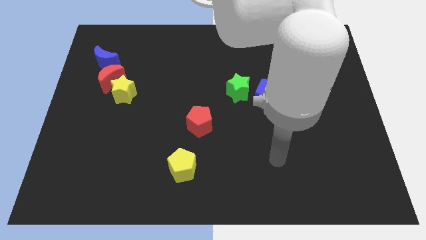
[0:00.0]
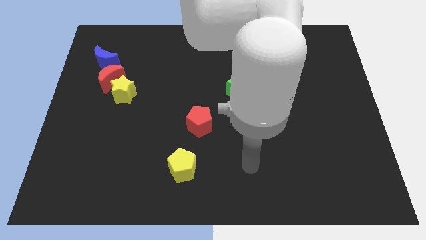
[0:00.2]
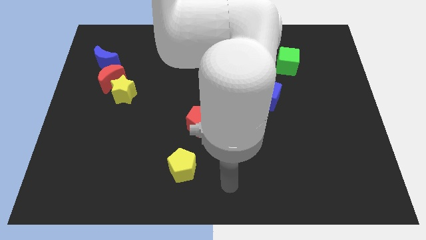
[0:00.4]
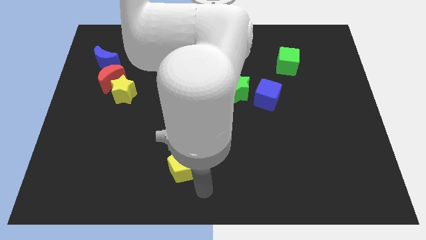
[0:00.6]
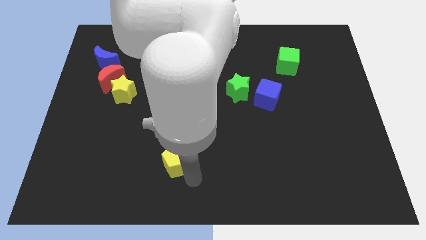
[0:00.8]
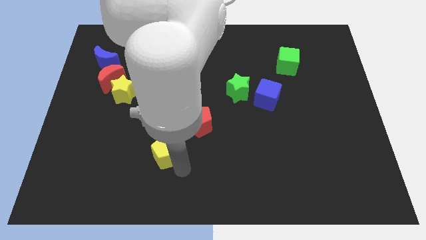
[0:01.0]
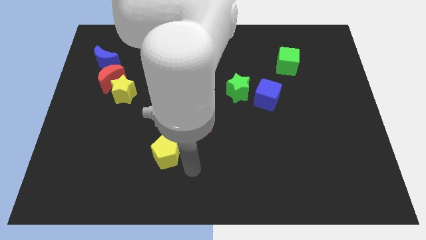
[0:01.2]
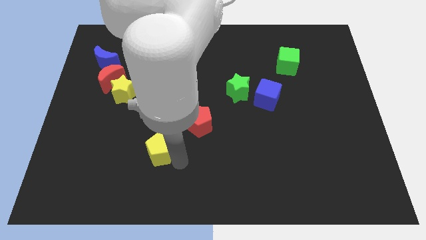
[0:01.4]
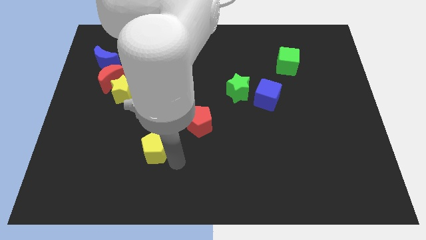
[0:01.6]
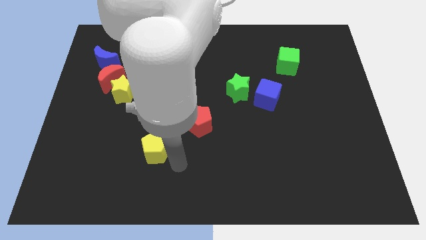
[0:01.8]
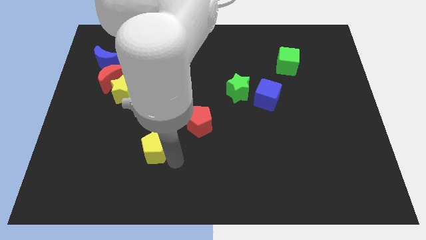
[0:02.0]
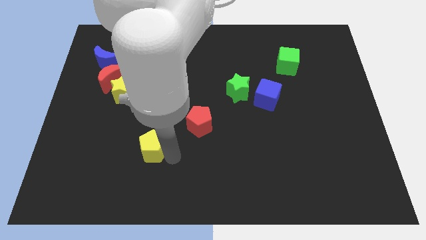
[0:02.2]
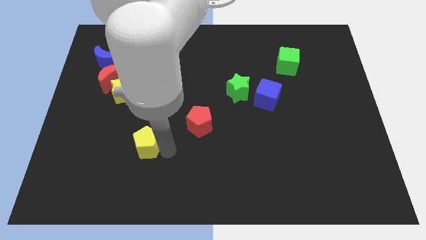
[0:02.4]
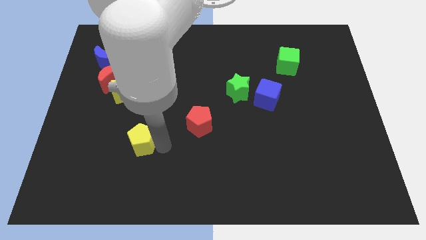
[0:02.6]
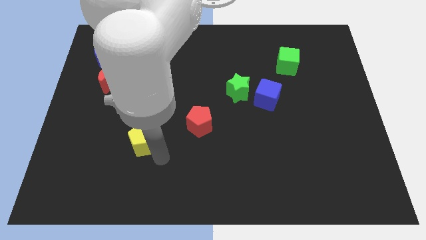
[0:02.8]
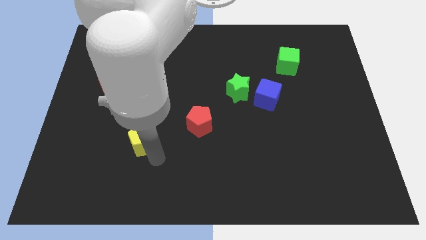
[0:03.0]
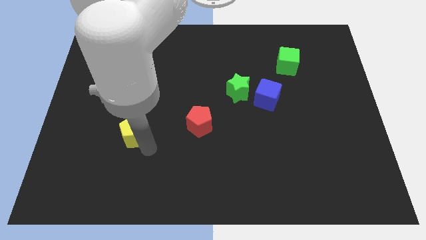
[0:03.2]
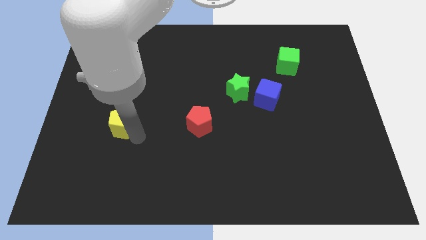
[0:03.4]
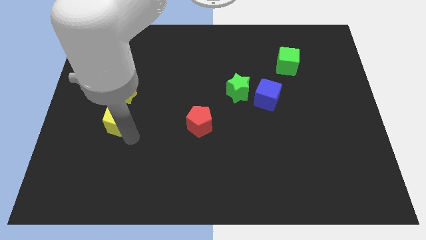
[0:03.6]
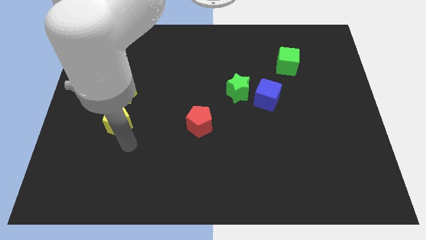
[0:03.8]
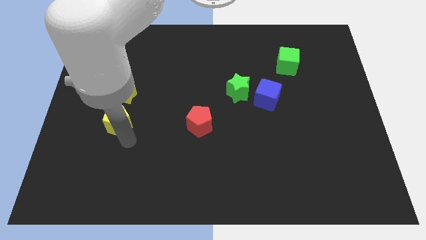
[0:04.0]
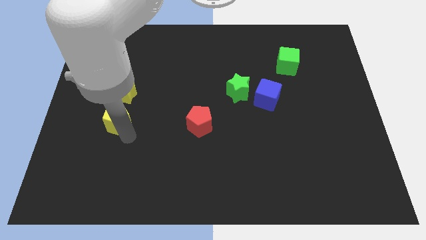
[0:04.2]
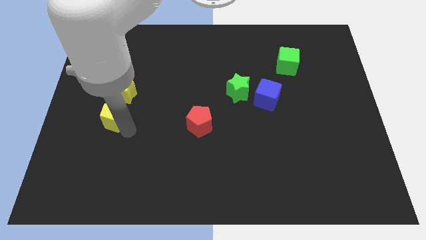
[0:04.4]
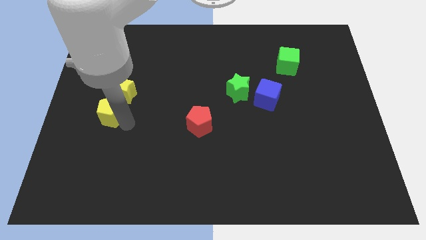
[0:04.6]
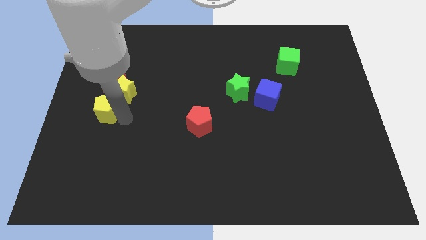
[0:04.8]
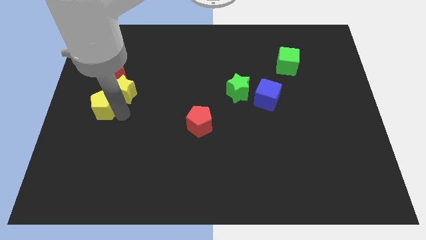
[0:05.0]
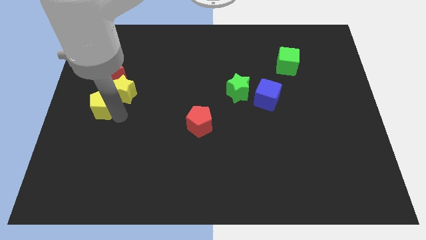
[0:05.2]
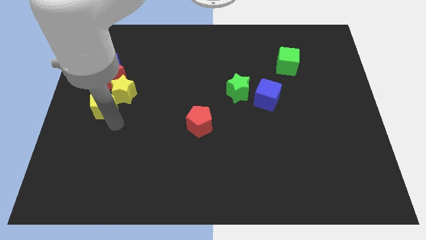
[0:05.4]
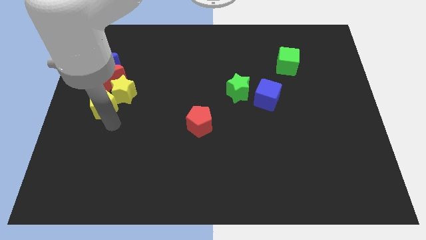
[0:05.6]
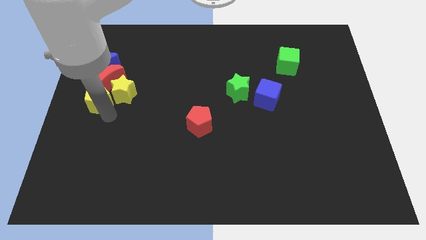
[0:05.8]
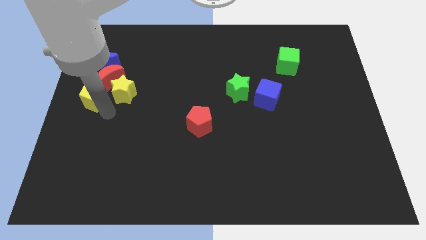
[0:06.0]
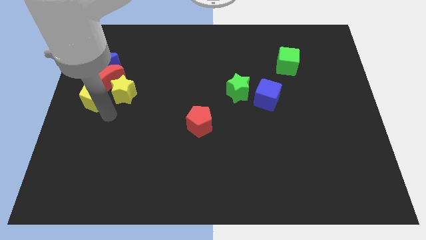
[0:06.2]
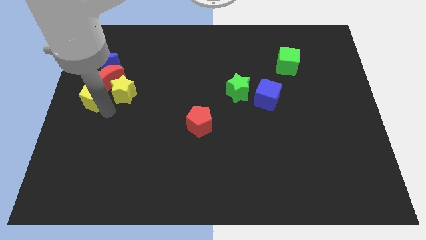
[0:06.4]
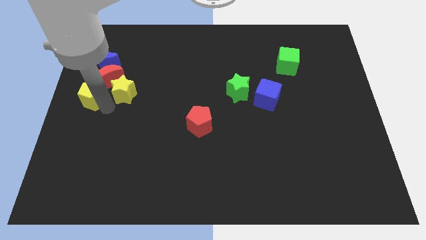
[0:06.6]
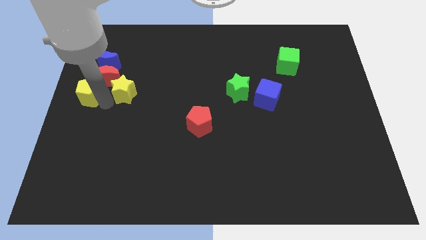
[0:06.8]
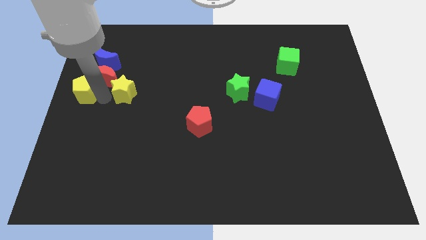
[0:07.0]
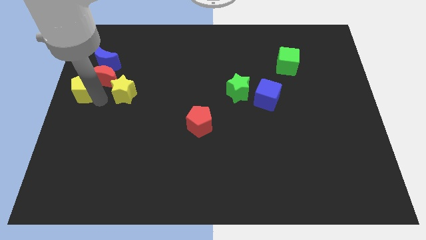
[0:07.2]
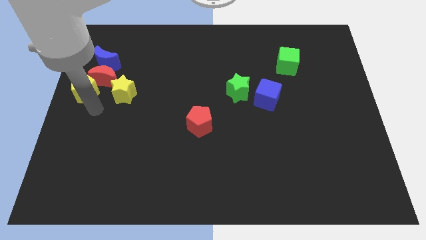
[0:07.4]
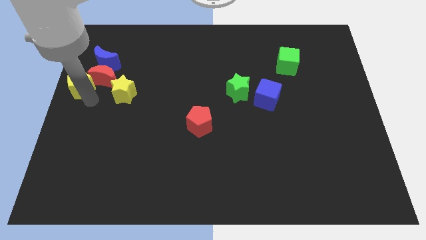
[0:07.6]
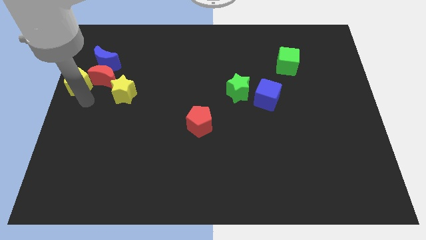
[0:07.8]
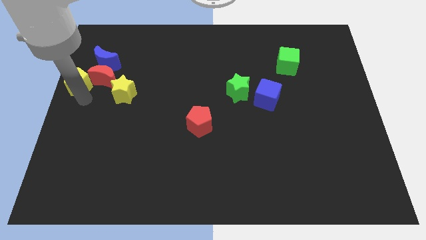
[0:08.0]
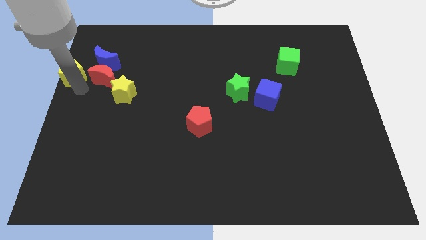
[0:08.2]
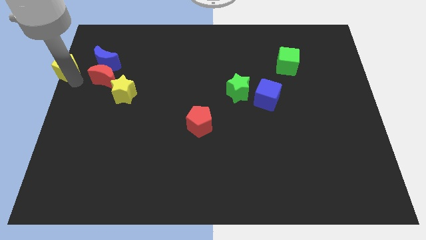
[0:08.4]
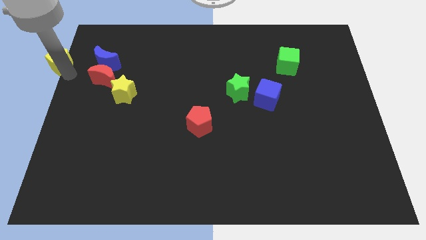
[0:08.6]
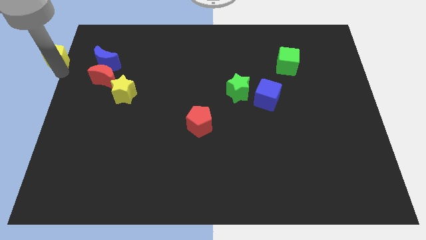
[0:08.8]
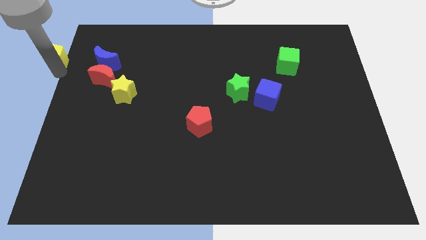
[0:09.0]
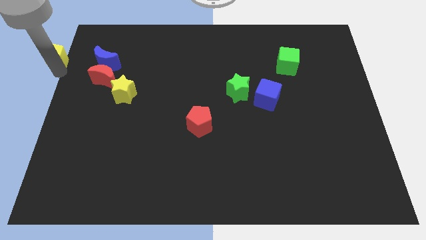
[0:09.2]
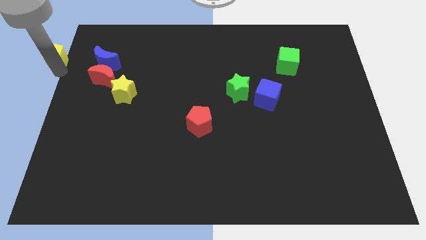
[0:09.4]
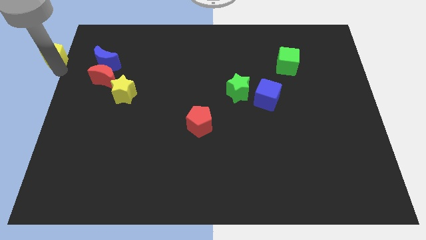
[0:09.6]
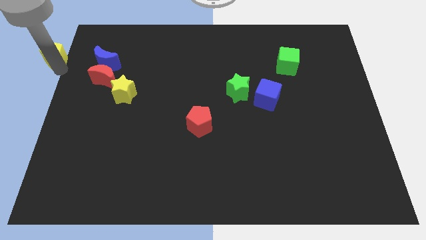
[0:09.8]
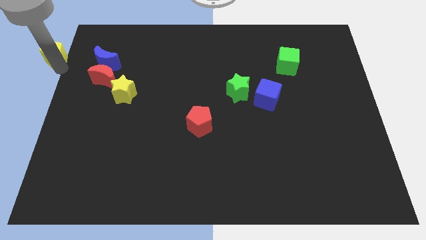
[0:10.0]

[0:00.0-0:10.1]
put the yellow pentagon to the top left

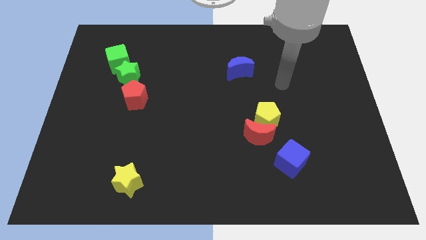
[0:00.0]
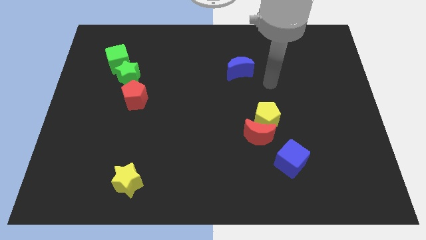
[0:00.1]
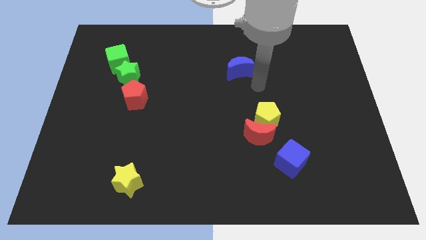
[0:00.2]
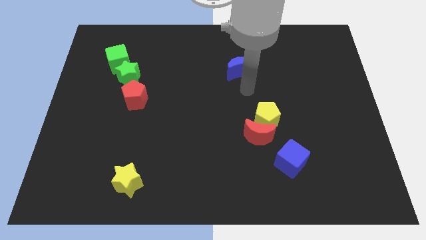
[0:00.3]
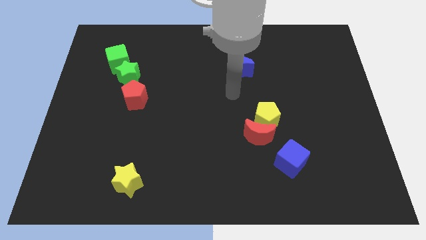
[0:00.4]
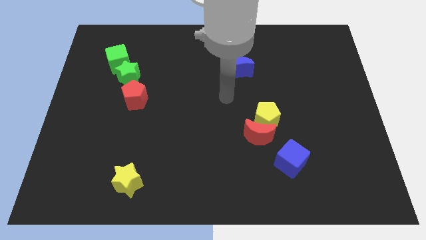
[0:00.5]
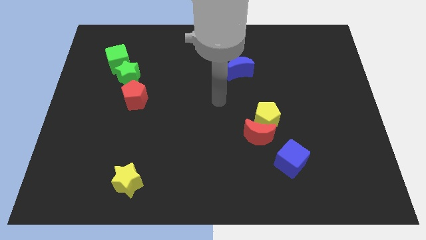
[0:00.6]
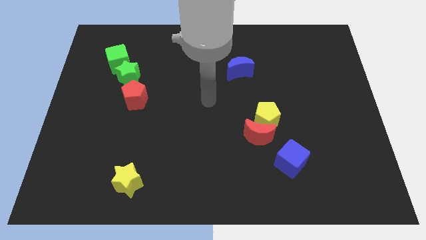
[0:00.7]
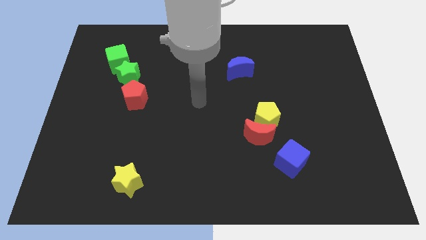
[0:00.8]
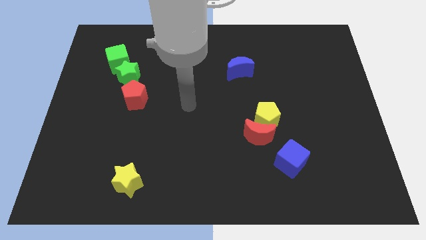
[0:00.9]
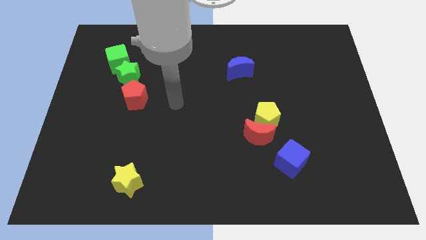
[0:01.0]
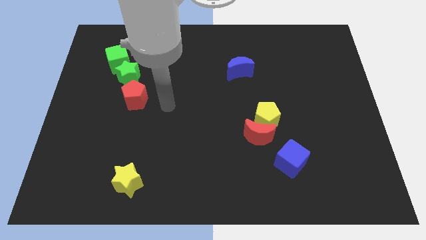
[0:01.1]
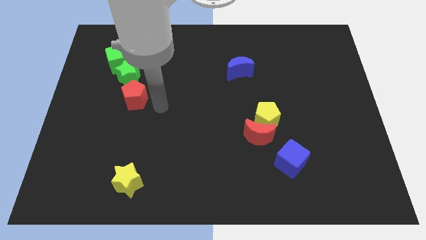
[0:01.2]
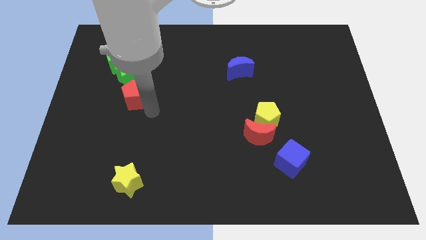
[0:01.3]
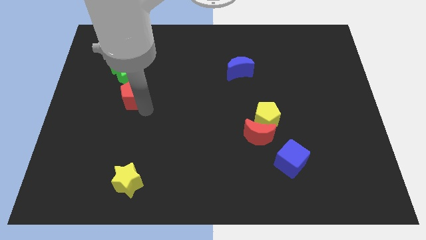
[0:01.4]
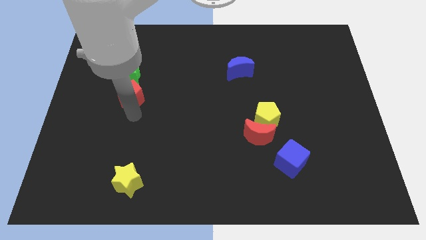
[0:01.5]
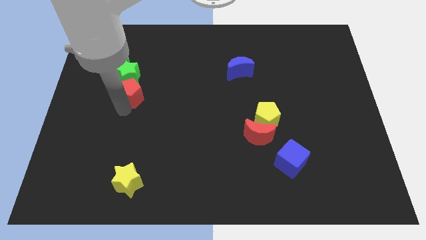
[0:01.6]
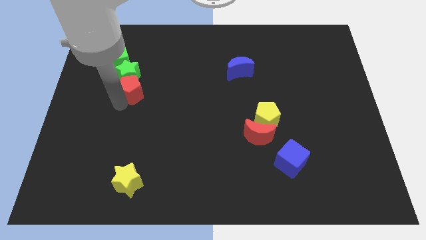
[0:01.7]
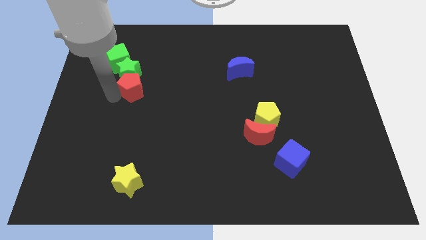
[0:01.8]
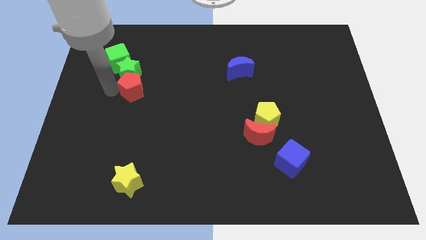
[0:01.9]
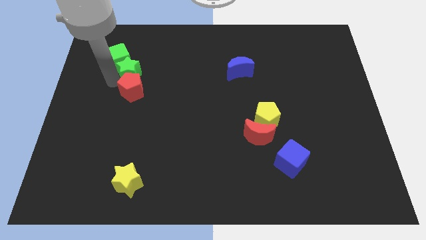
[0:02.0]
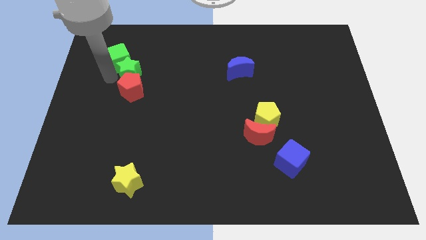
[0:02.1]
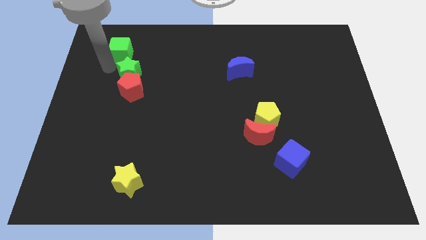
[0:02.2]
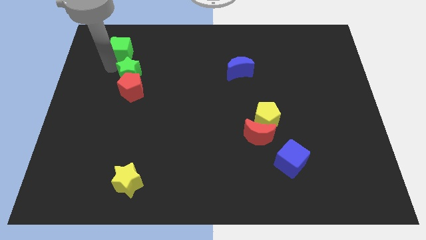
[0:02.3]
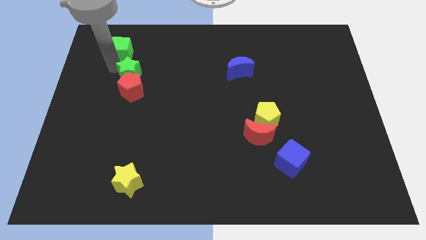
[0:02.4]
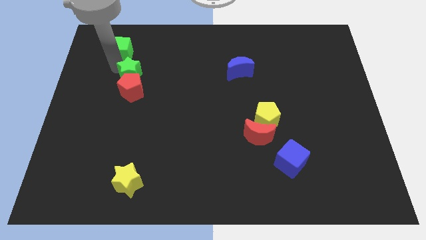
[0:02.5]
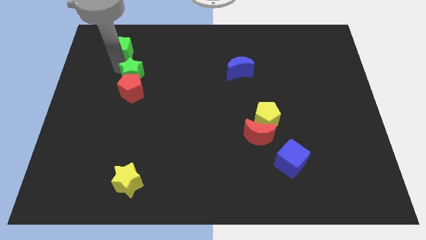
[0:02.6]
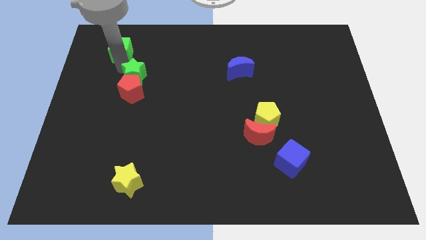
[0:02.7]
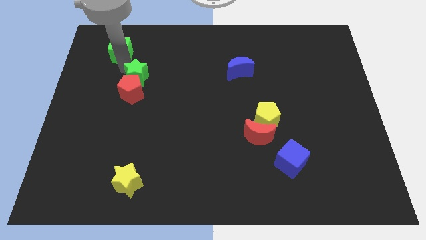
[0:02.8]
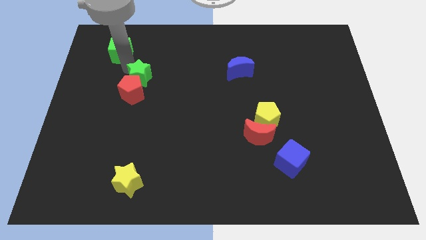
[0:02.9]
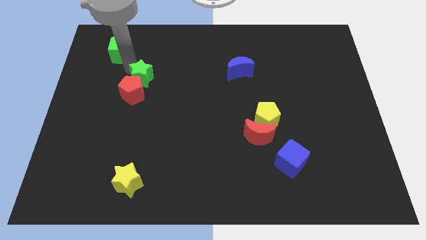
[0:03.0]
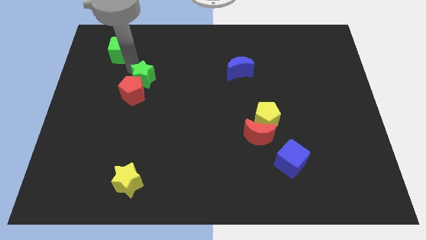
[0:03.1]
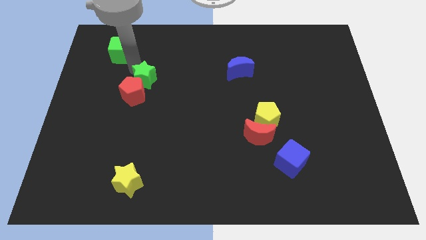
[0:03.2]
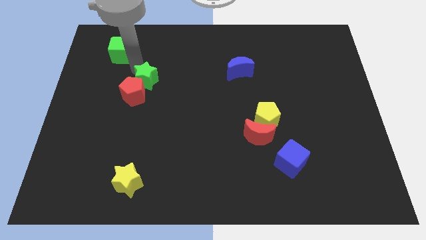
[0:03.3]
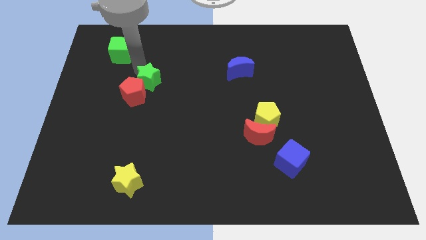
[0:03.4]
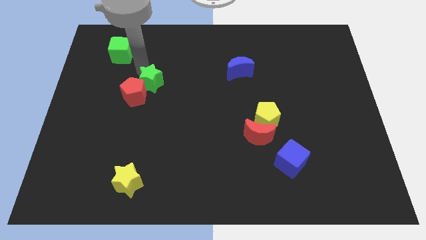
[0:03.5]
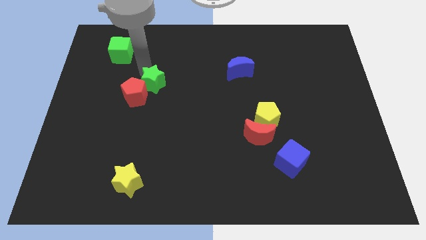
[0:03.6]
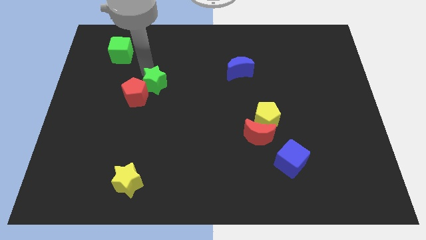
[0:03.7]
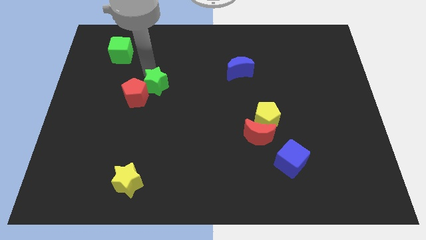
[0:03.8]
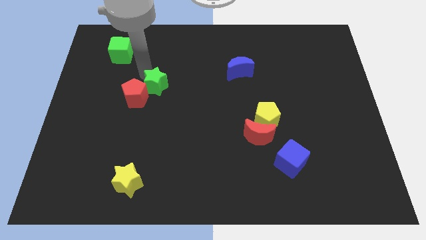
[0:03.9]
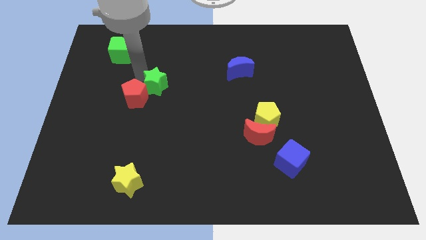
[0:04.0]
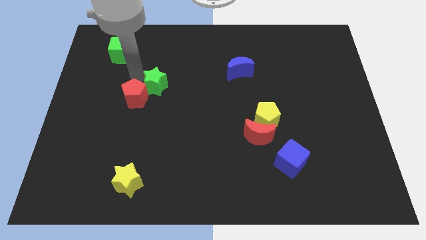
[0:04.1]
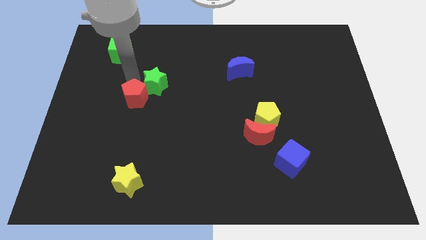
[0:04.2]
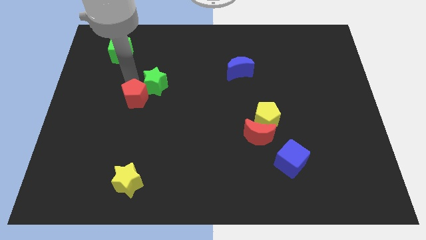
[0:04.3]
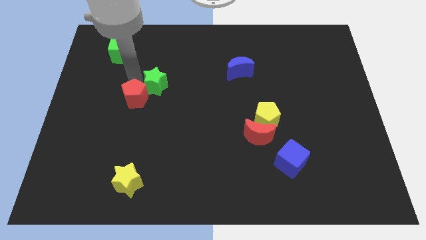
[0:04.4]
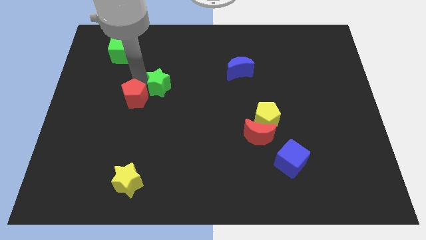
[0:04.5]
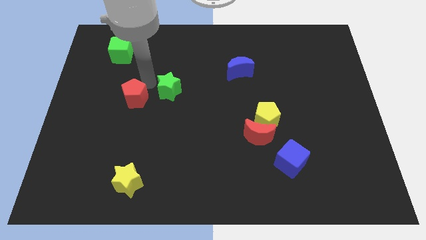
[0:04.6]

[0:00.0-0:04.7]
move the green star to the center of the board
